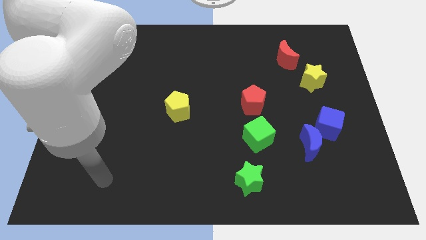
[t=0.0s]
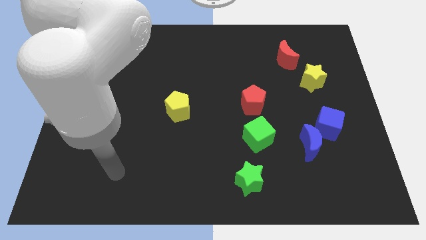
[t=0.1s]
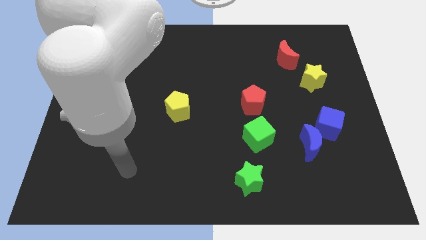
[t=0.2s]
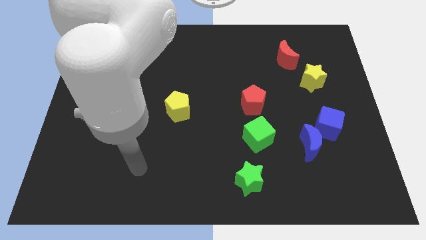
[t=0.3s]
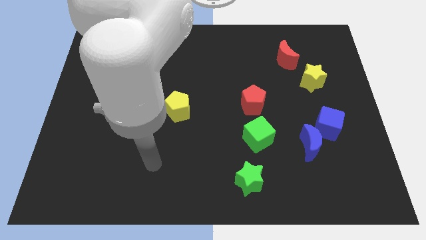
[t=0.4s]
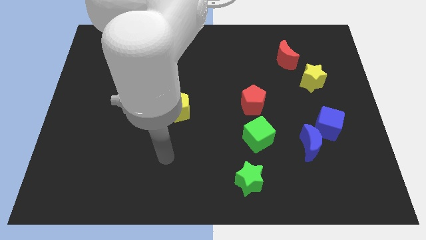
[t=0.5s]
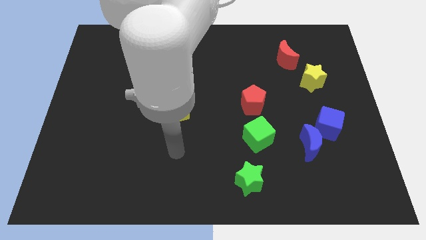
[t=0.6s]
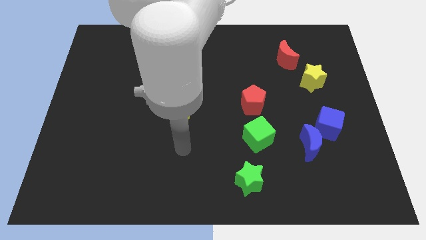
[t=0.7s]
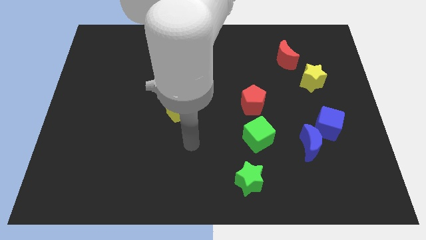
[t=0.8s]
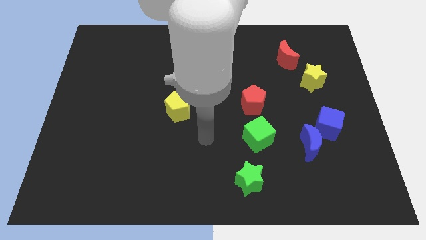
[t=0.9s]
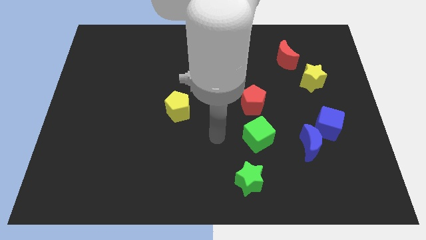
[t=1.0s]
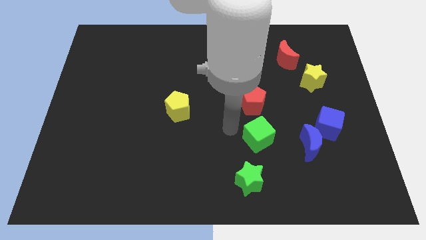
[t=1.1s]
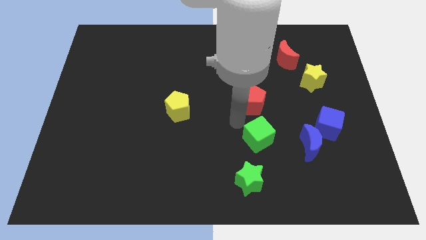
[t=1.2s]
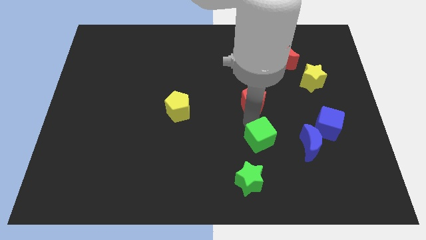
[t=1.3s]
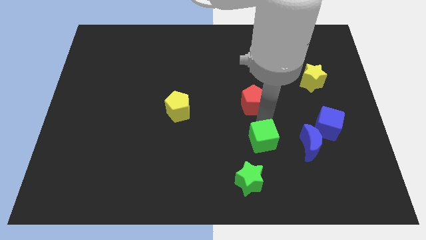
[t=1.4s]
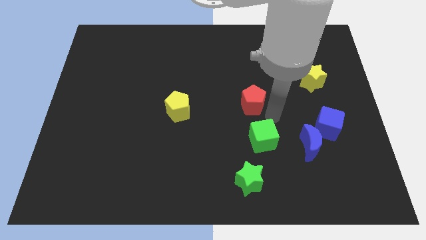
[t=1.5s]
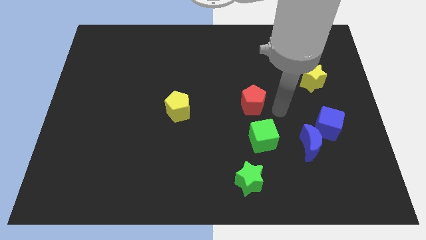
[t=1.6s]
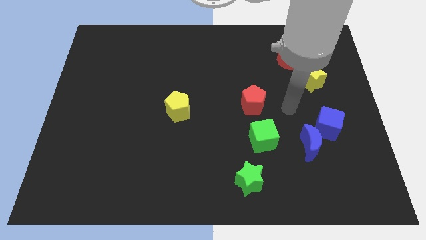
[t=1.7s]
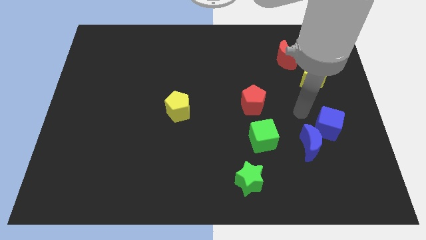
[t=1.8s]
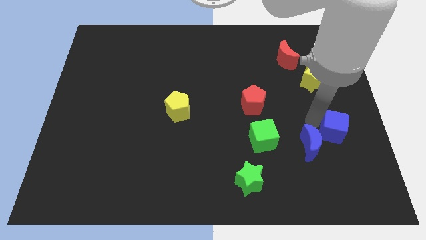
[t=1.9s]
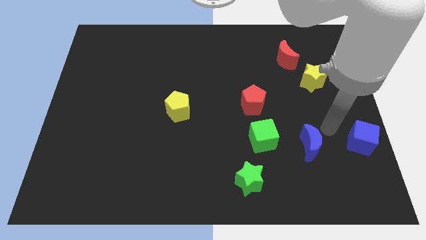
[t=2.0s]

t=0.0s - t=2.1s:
pull the blue moon apart from the blue cube

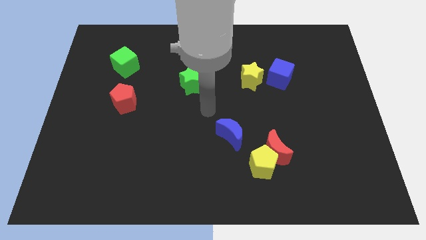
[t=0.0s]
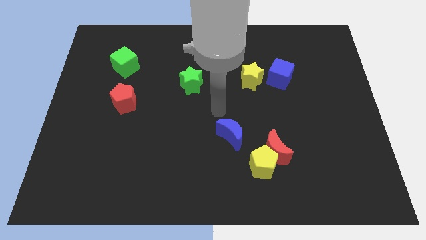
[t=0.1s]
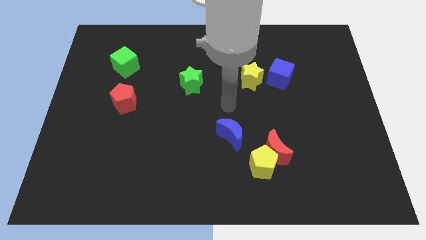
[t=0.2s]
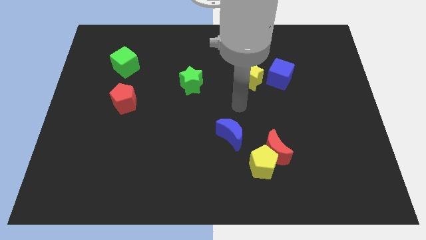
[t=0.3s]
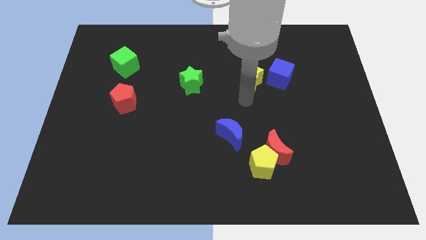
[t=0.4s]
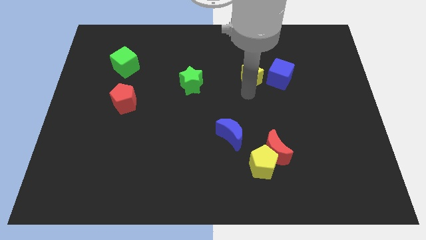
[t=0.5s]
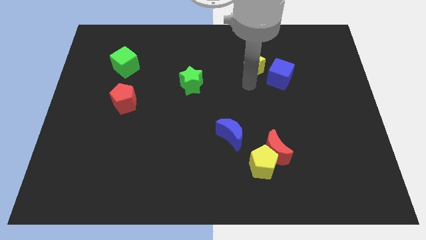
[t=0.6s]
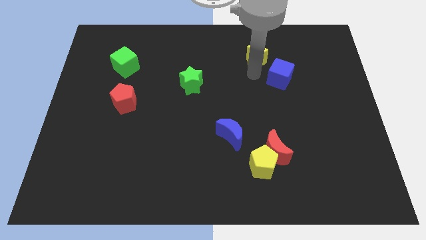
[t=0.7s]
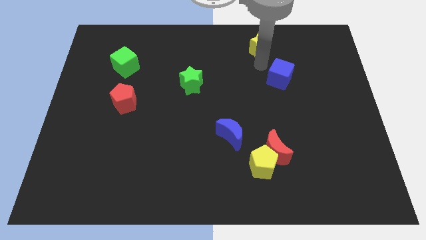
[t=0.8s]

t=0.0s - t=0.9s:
separate the blue cube from the yellow star

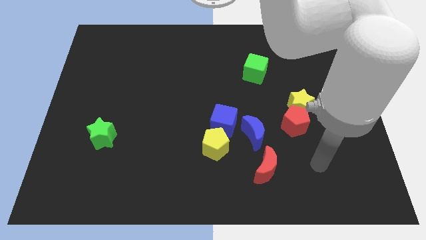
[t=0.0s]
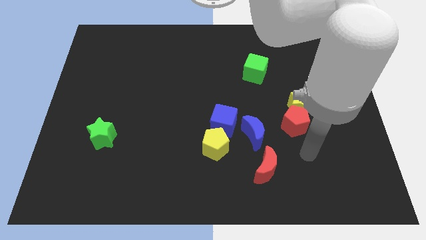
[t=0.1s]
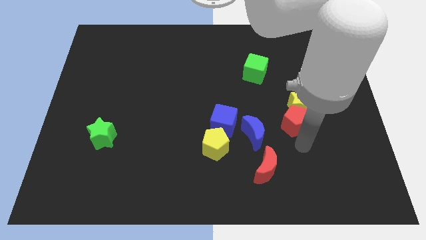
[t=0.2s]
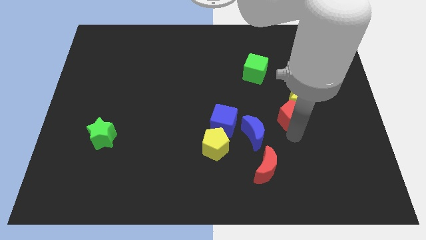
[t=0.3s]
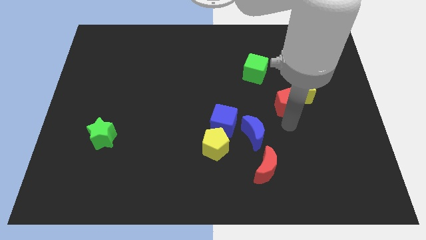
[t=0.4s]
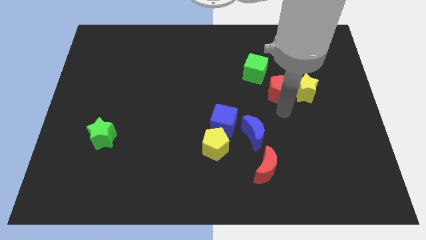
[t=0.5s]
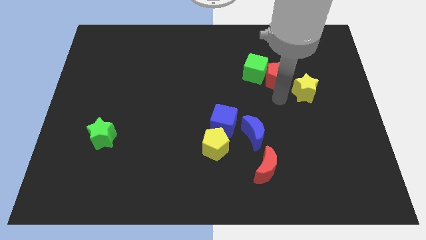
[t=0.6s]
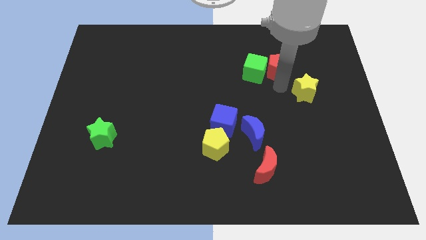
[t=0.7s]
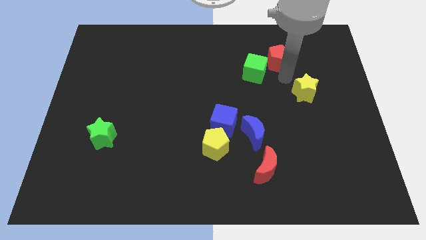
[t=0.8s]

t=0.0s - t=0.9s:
pull the yellow star apart from the red pentagon

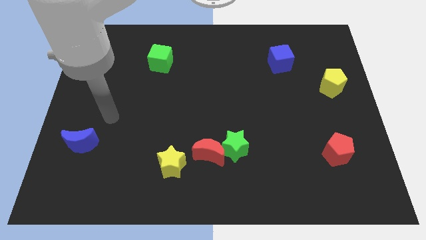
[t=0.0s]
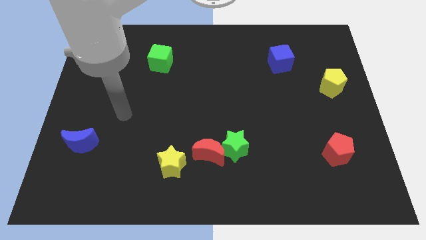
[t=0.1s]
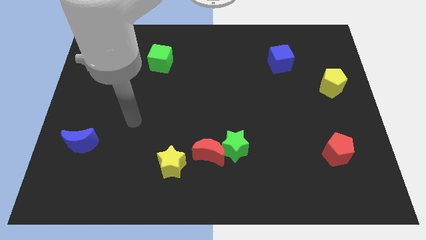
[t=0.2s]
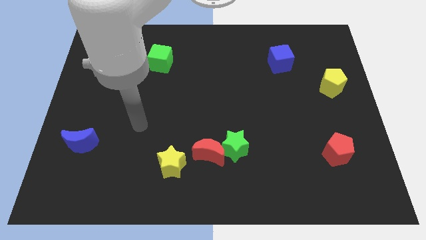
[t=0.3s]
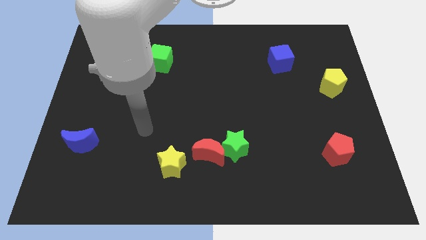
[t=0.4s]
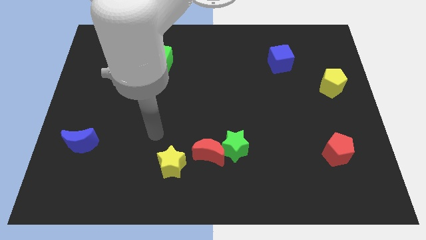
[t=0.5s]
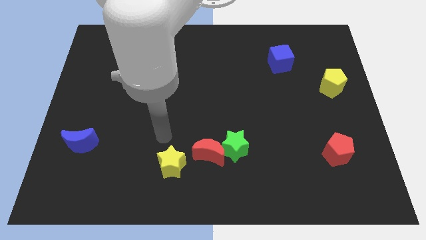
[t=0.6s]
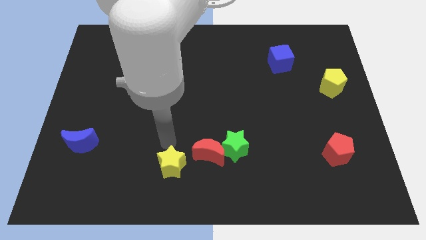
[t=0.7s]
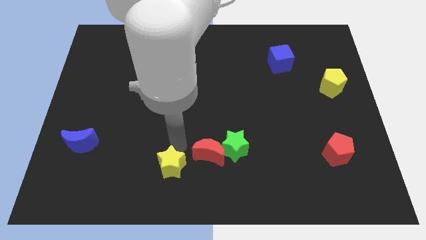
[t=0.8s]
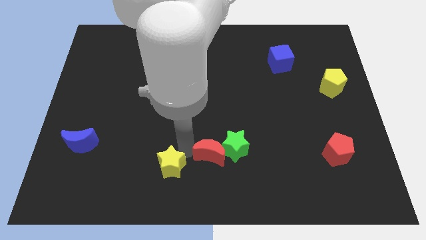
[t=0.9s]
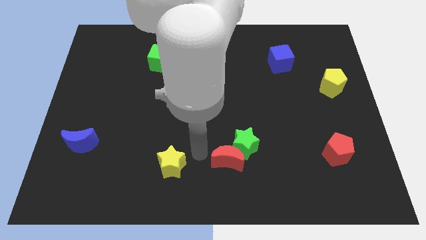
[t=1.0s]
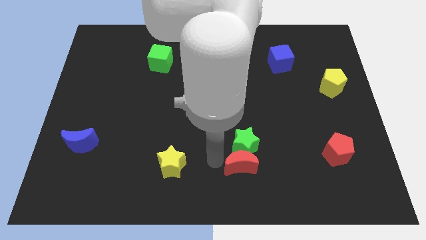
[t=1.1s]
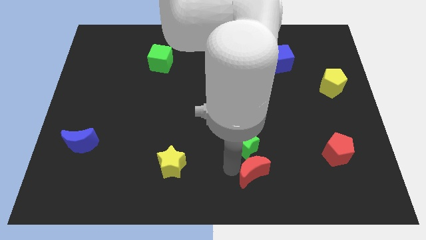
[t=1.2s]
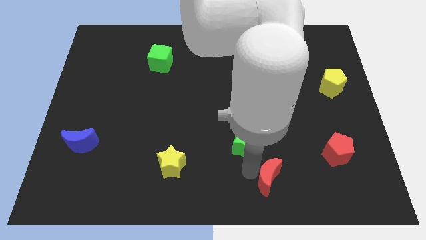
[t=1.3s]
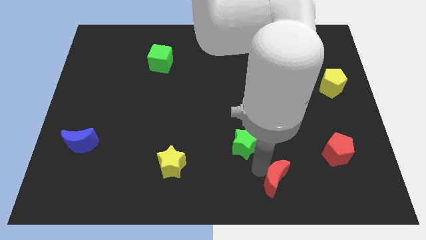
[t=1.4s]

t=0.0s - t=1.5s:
move the green star away from the red moon

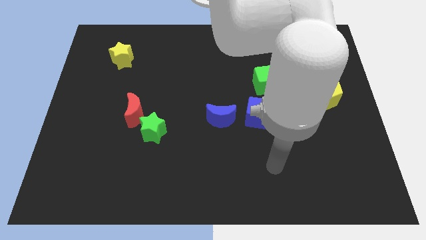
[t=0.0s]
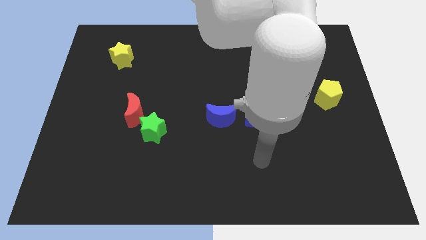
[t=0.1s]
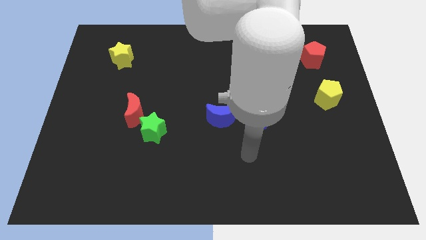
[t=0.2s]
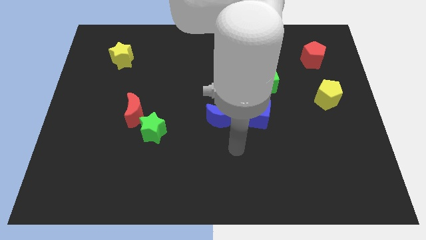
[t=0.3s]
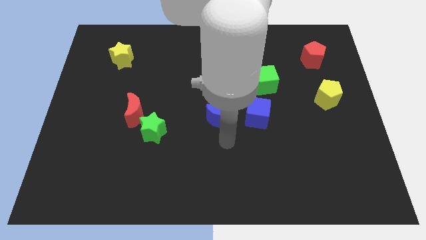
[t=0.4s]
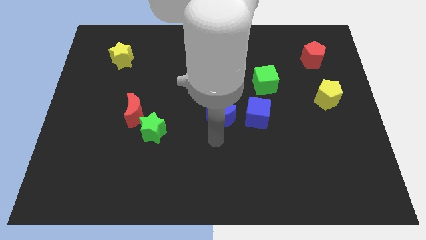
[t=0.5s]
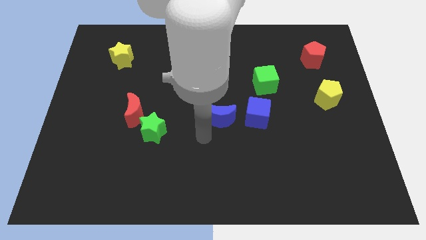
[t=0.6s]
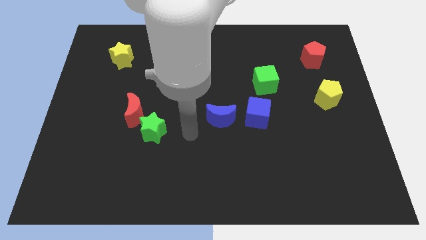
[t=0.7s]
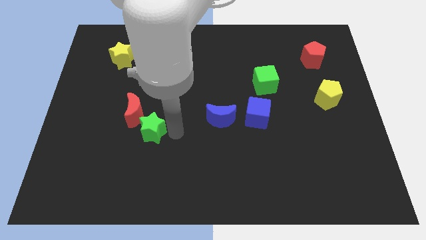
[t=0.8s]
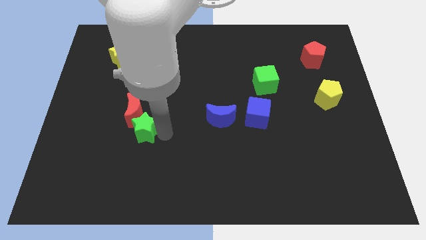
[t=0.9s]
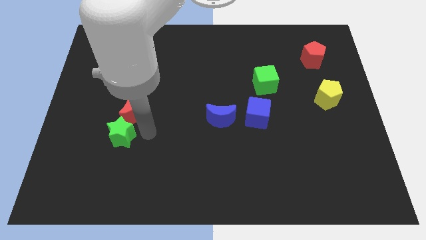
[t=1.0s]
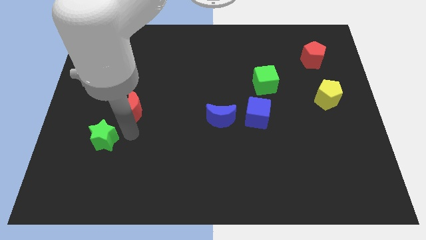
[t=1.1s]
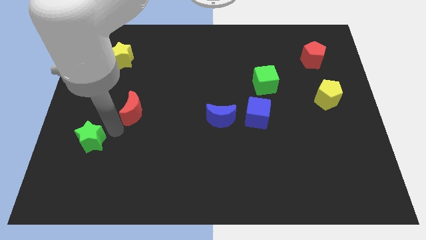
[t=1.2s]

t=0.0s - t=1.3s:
pull the red moon apart from the green star

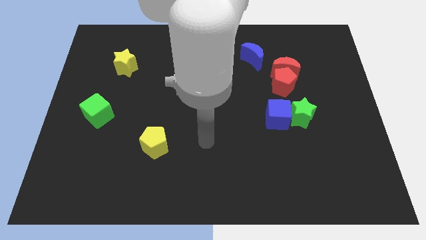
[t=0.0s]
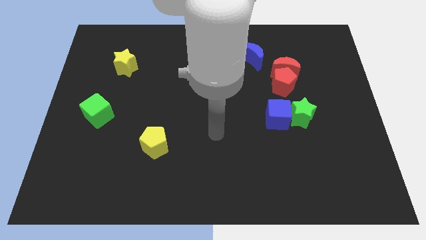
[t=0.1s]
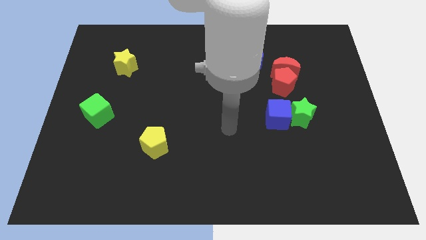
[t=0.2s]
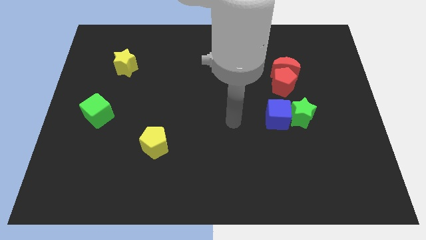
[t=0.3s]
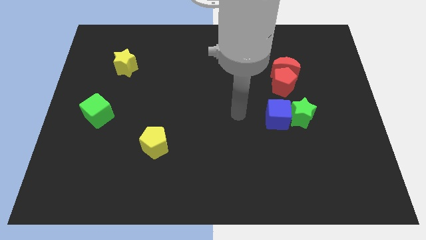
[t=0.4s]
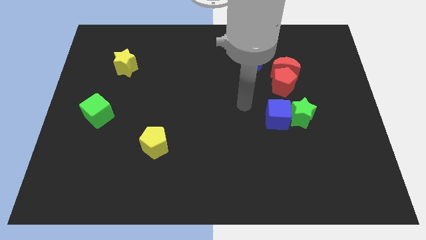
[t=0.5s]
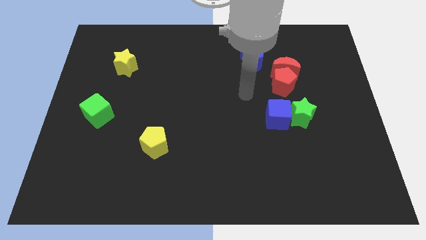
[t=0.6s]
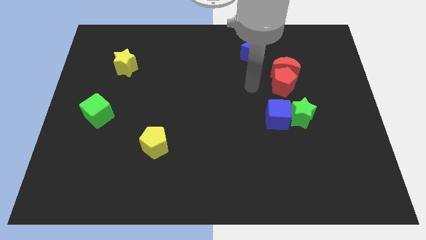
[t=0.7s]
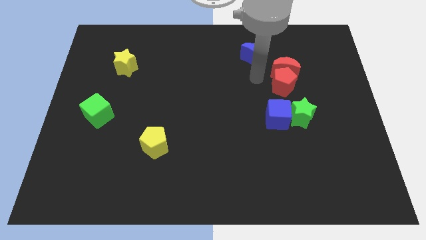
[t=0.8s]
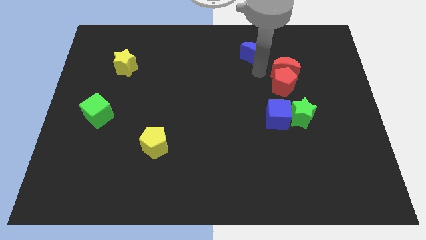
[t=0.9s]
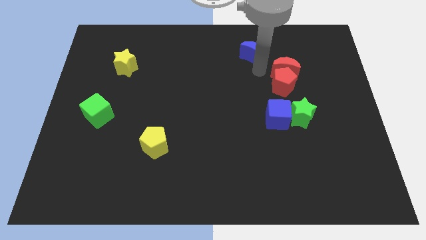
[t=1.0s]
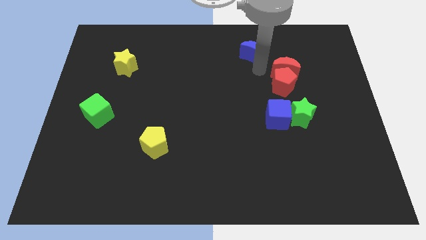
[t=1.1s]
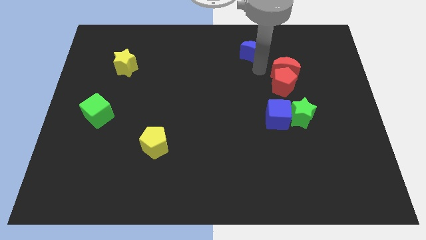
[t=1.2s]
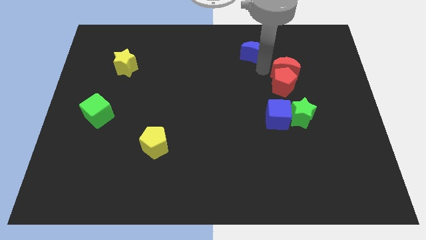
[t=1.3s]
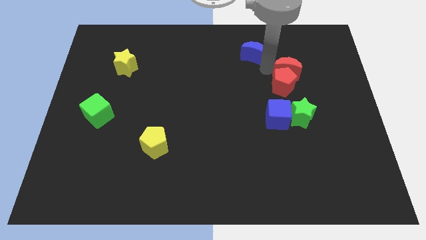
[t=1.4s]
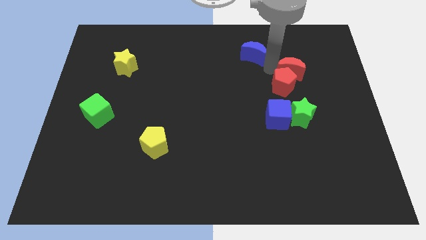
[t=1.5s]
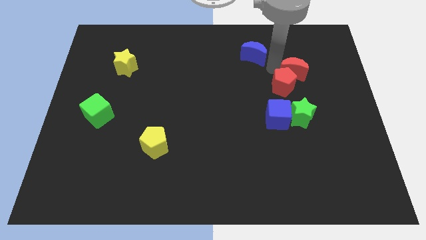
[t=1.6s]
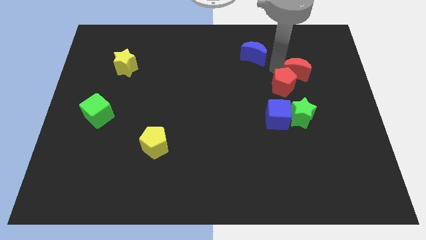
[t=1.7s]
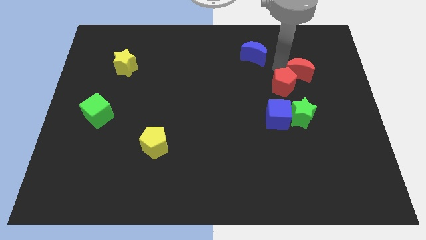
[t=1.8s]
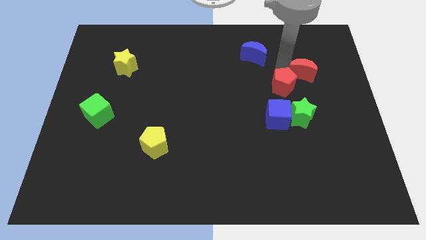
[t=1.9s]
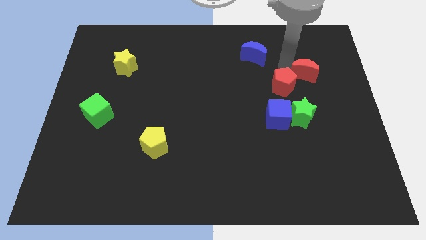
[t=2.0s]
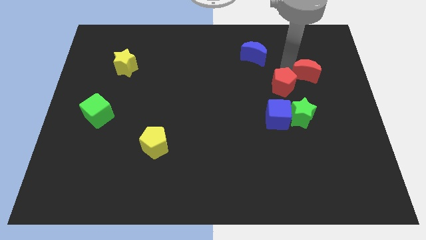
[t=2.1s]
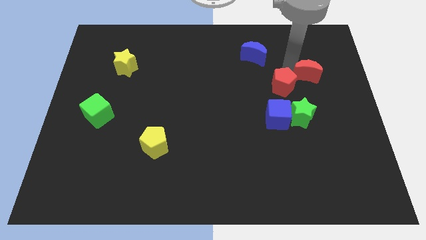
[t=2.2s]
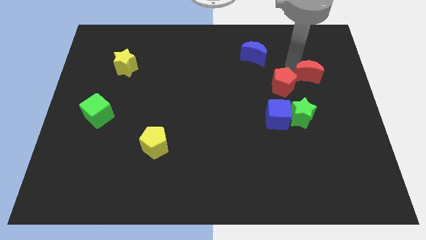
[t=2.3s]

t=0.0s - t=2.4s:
separate the red moon from the red pentagon and blue moon
